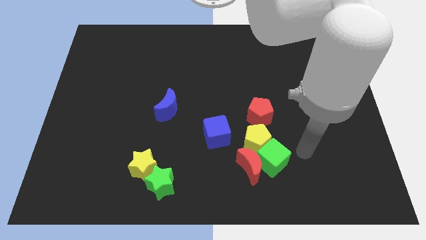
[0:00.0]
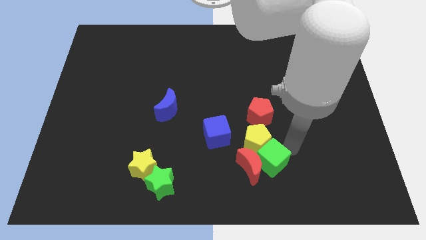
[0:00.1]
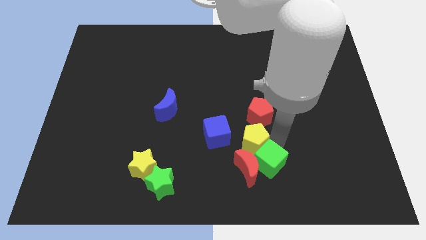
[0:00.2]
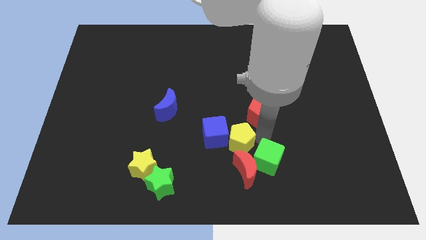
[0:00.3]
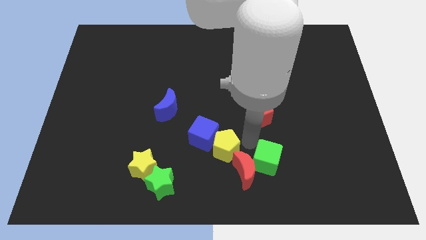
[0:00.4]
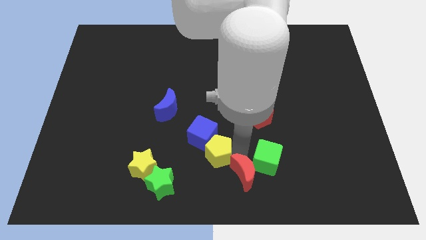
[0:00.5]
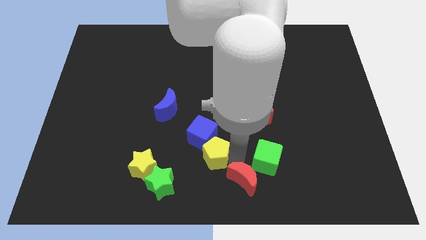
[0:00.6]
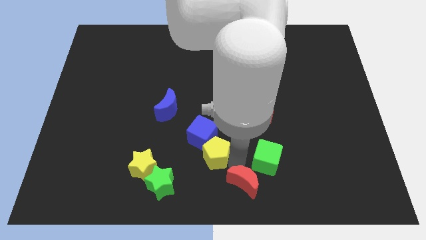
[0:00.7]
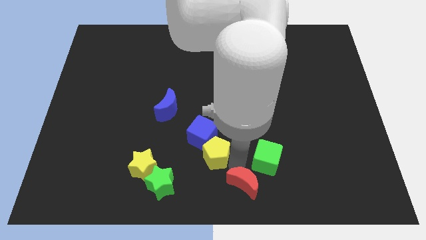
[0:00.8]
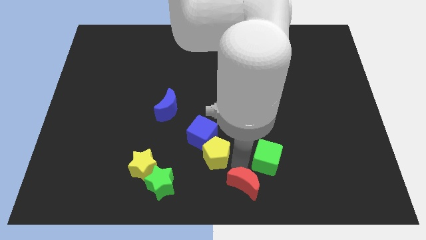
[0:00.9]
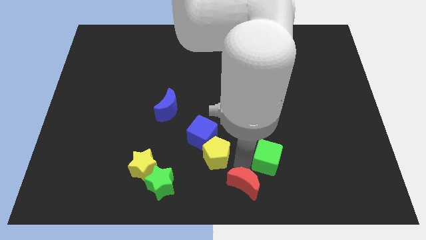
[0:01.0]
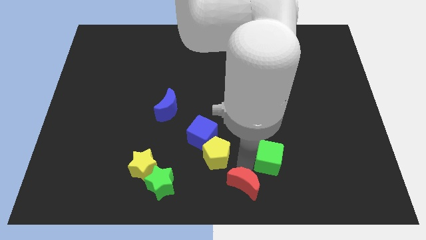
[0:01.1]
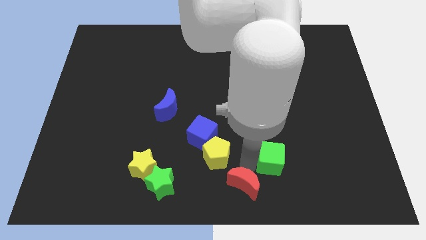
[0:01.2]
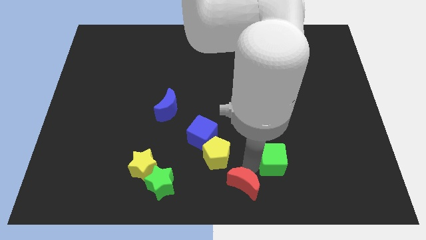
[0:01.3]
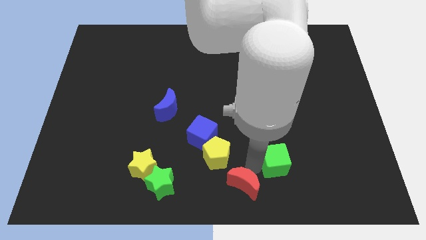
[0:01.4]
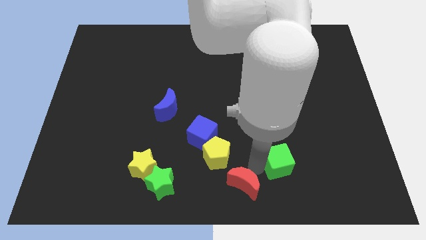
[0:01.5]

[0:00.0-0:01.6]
move the green cube away from the red moon and yellow pentagon

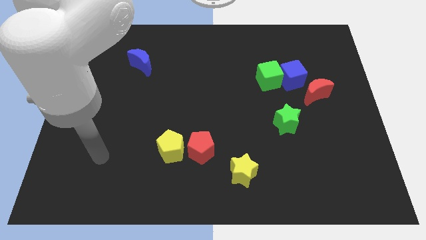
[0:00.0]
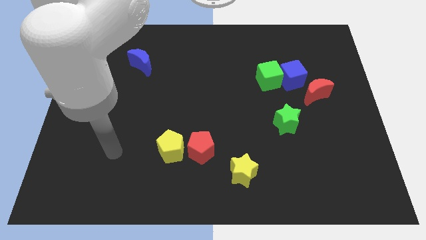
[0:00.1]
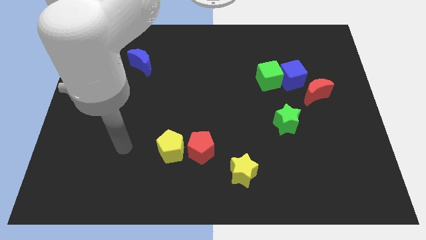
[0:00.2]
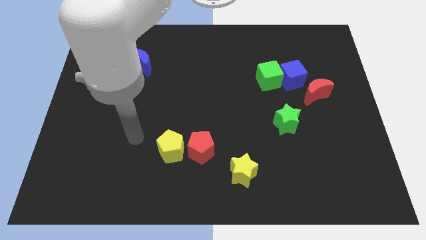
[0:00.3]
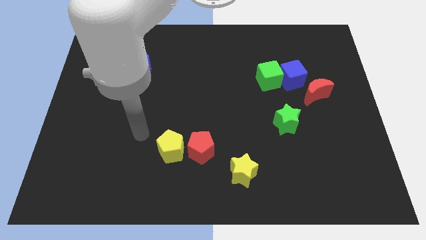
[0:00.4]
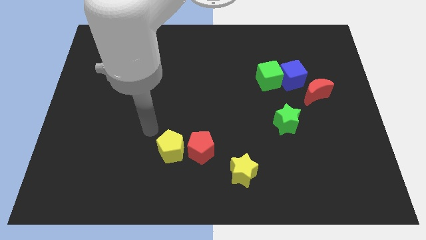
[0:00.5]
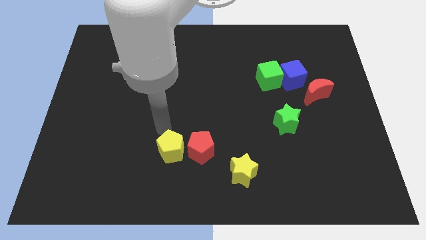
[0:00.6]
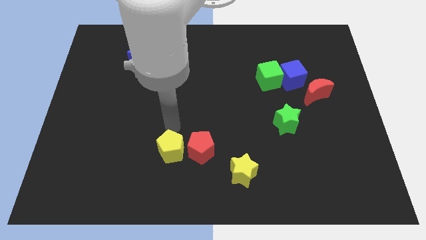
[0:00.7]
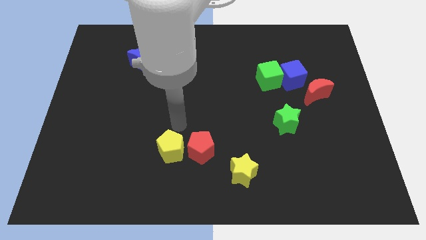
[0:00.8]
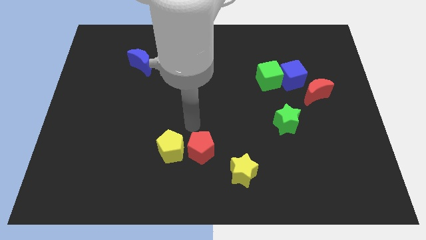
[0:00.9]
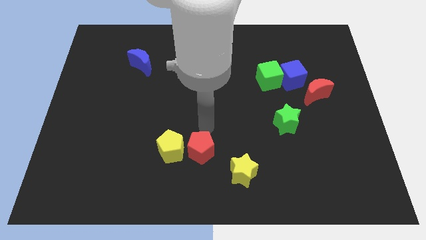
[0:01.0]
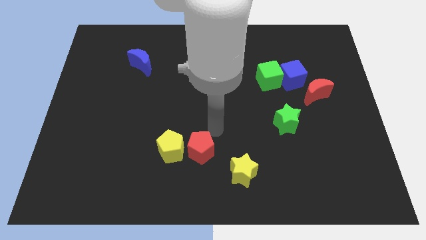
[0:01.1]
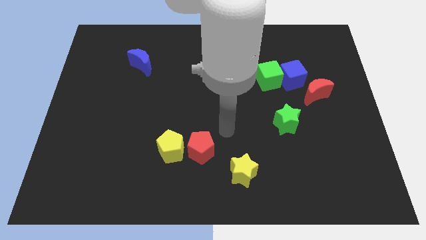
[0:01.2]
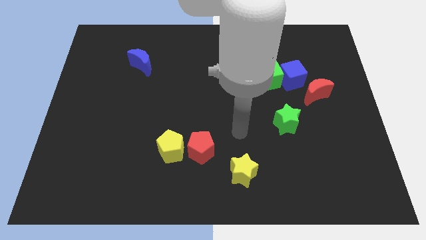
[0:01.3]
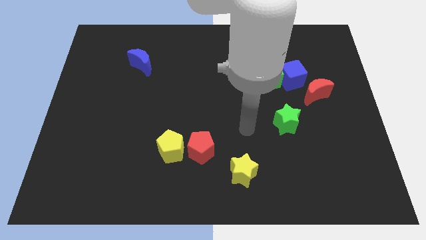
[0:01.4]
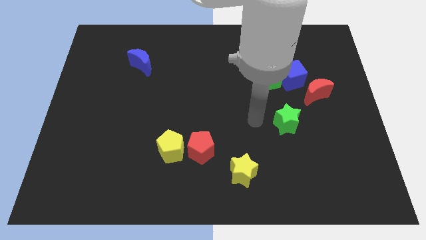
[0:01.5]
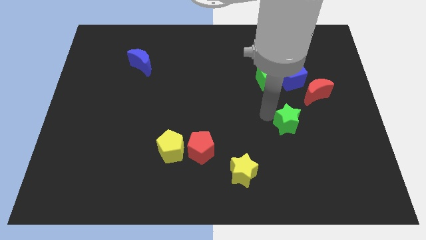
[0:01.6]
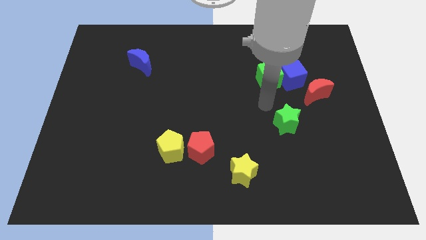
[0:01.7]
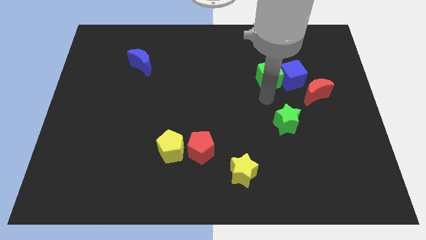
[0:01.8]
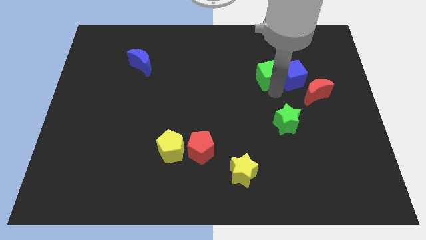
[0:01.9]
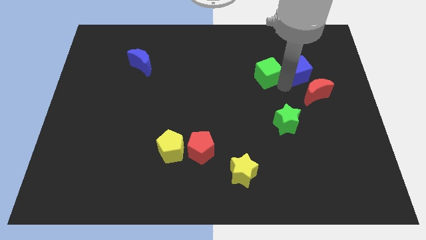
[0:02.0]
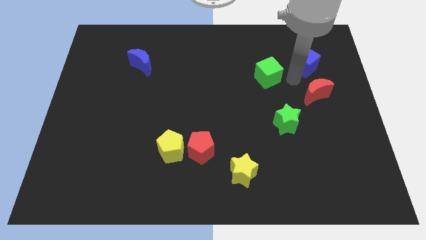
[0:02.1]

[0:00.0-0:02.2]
move the green cube away from the blue cube

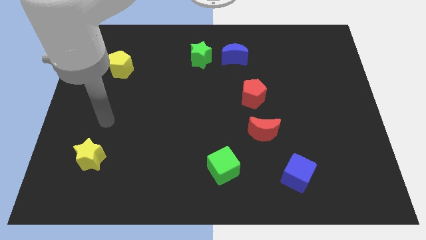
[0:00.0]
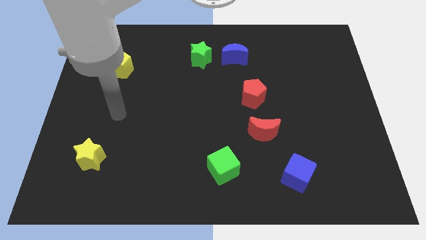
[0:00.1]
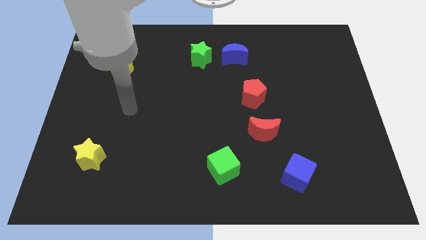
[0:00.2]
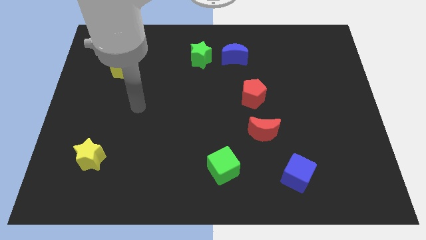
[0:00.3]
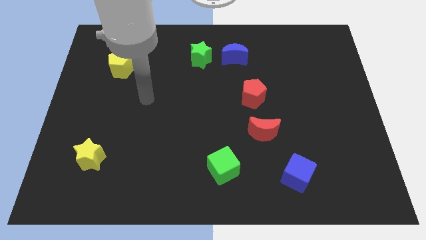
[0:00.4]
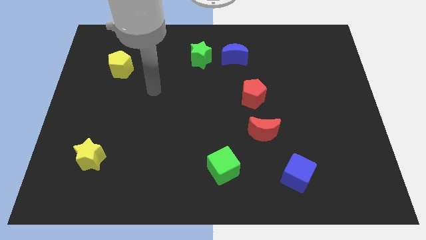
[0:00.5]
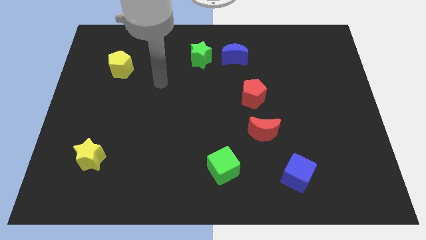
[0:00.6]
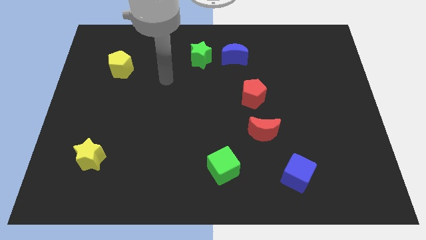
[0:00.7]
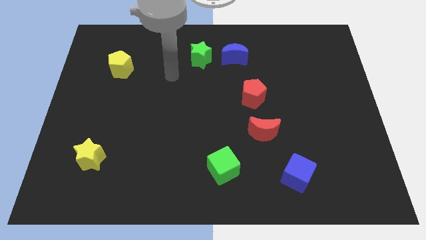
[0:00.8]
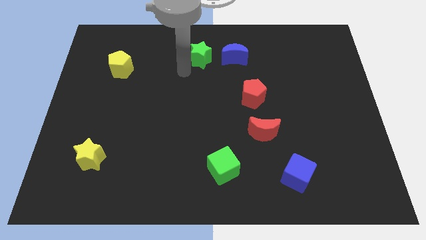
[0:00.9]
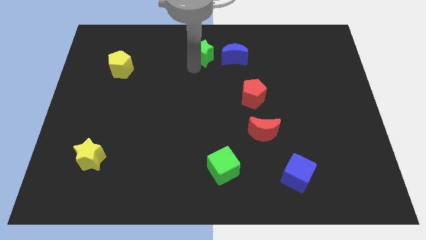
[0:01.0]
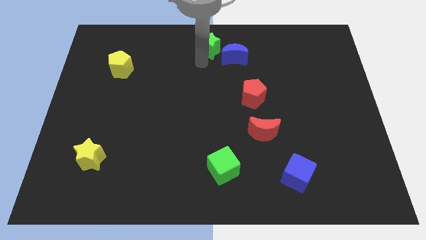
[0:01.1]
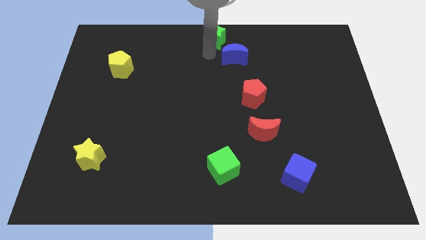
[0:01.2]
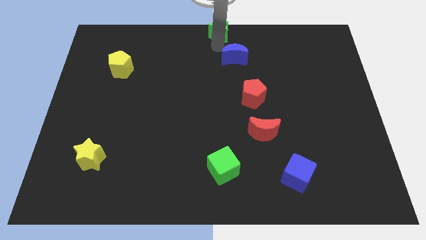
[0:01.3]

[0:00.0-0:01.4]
separate the blue moon from the green star

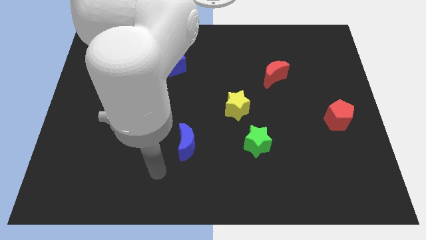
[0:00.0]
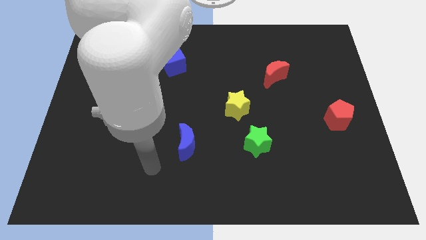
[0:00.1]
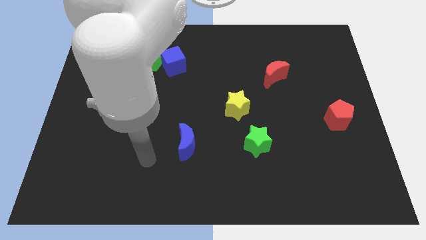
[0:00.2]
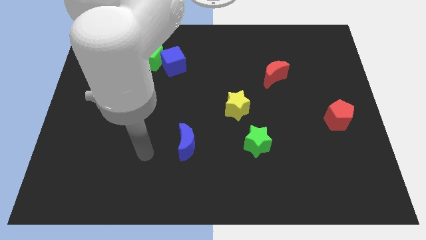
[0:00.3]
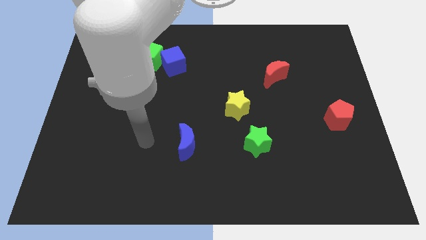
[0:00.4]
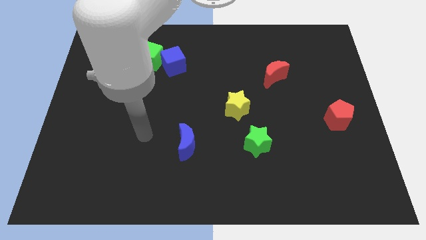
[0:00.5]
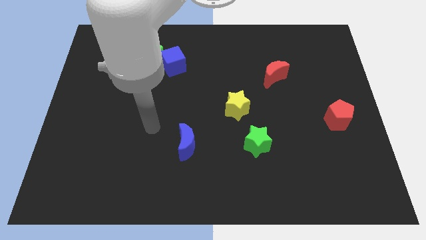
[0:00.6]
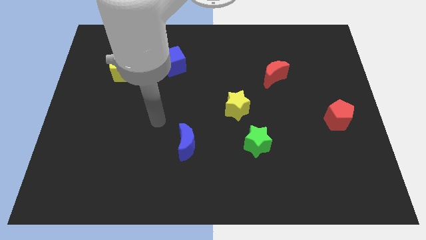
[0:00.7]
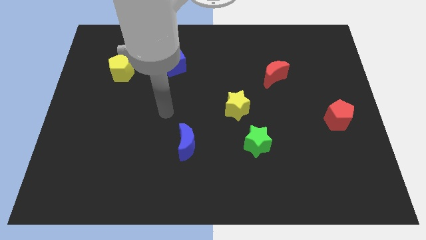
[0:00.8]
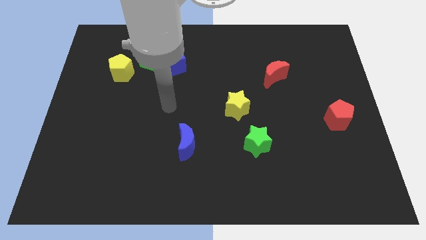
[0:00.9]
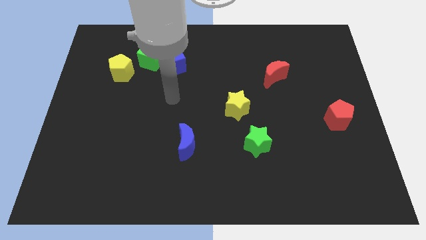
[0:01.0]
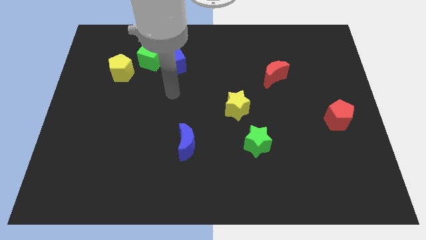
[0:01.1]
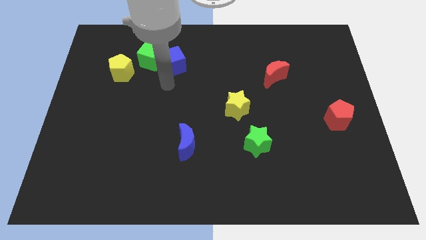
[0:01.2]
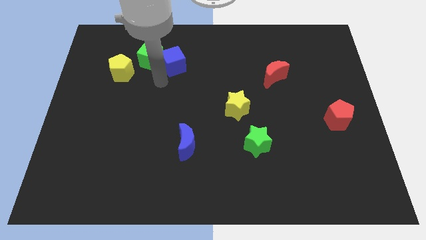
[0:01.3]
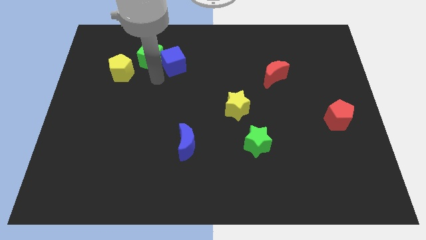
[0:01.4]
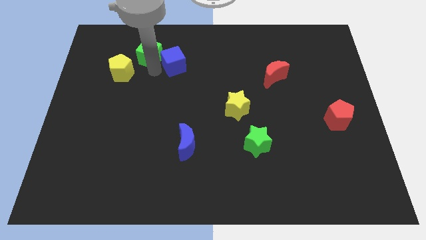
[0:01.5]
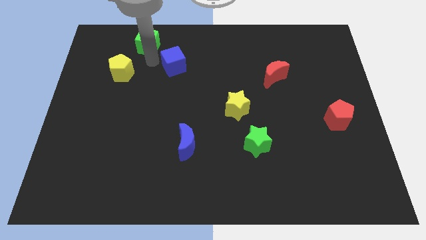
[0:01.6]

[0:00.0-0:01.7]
move the blue cube away from the green cube

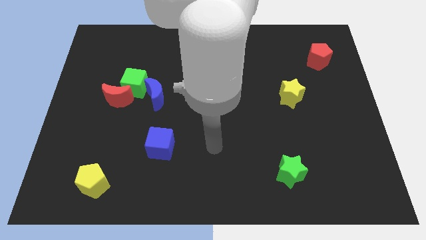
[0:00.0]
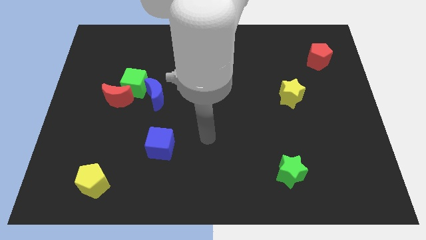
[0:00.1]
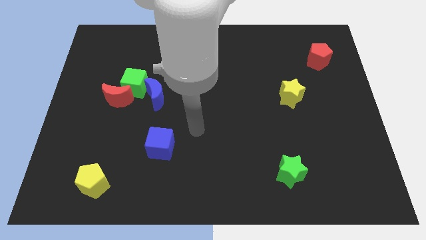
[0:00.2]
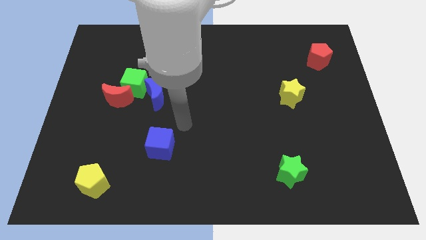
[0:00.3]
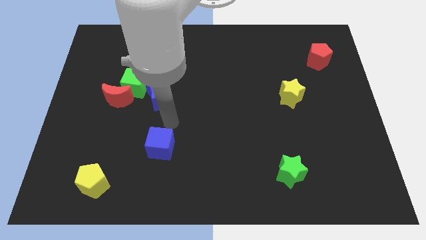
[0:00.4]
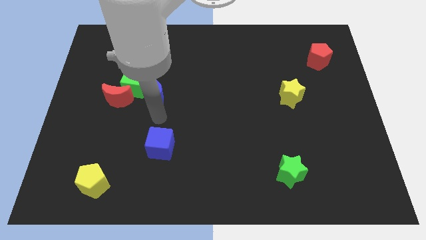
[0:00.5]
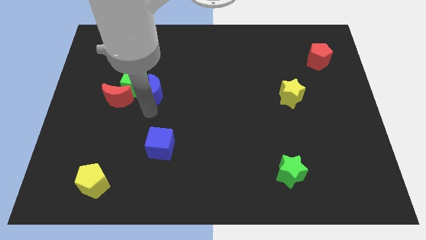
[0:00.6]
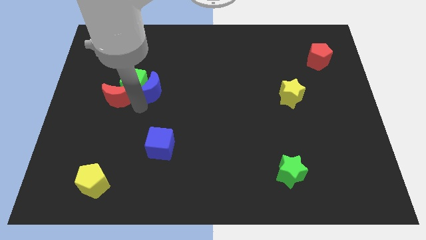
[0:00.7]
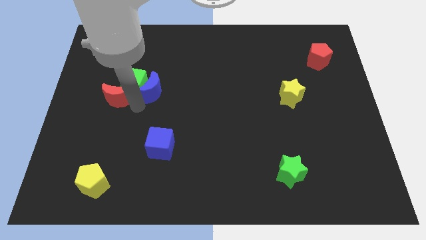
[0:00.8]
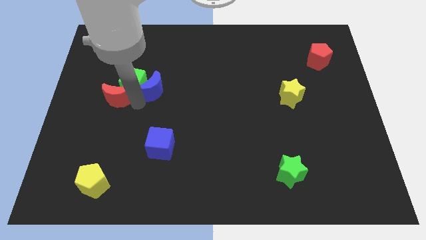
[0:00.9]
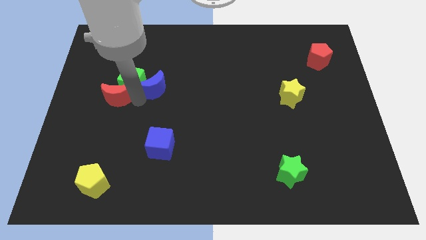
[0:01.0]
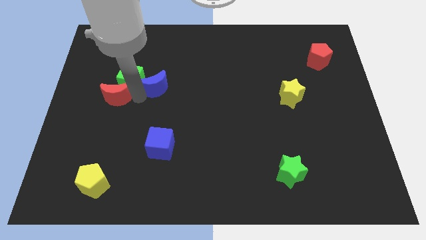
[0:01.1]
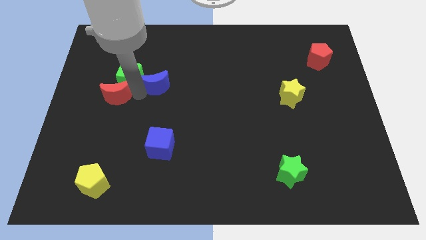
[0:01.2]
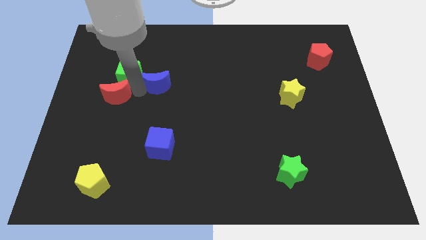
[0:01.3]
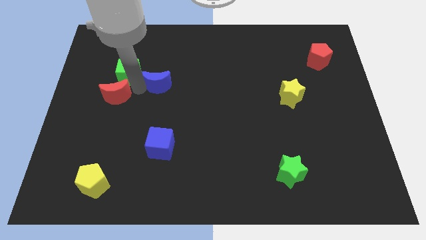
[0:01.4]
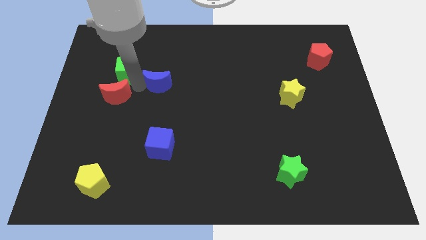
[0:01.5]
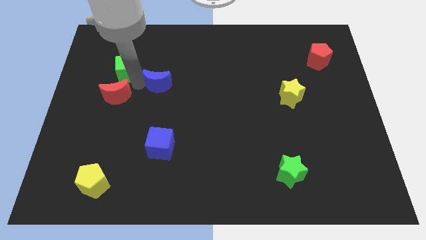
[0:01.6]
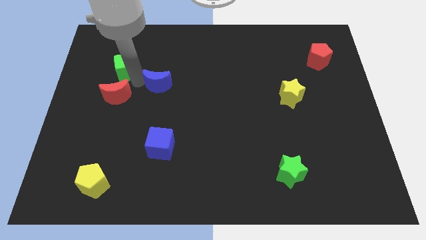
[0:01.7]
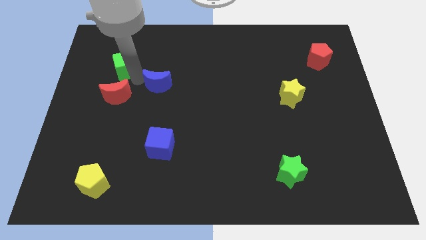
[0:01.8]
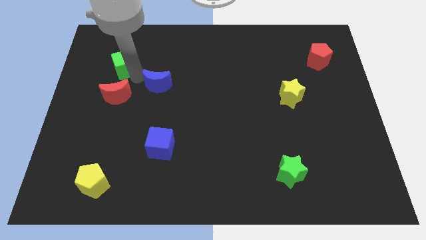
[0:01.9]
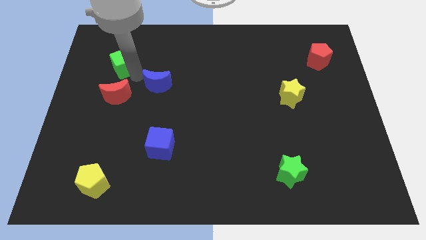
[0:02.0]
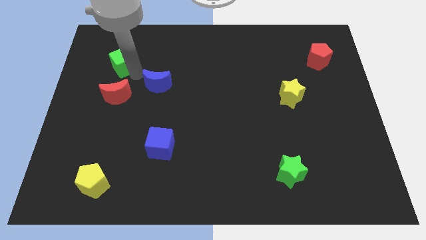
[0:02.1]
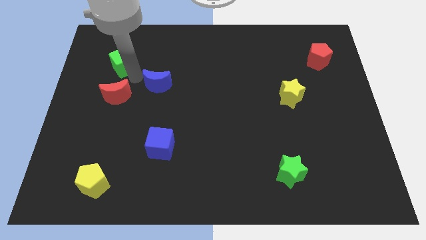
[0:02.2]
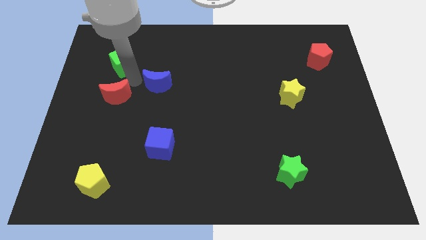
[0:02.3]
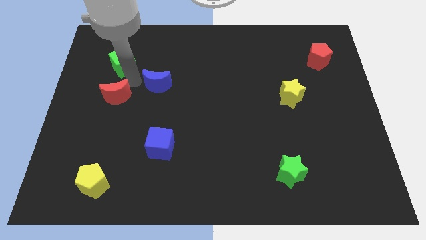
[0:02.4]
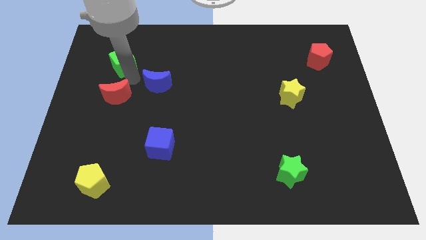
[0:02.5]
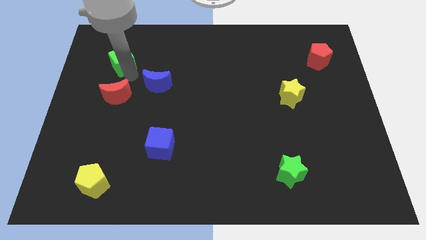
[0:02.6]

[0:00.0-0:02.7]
pull the green cube apart from the red moon and blue moon
